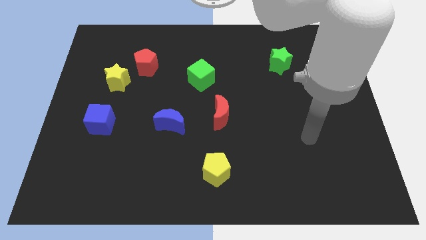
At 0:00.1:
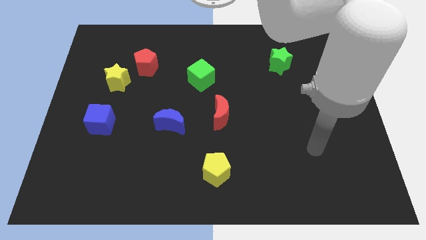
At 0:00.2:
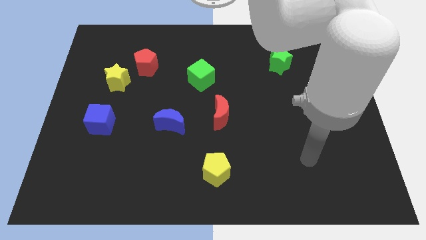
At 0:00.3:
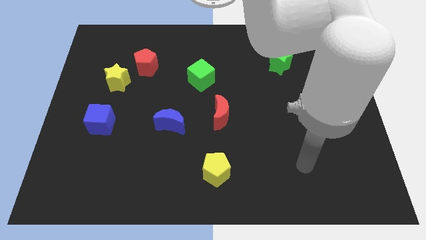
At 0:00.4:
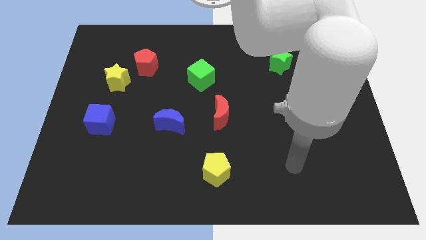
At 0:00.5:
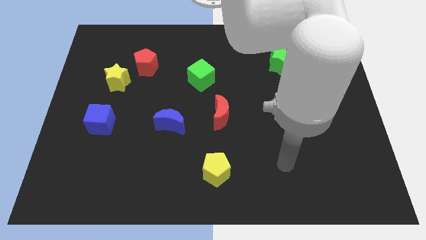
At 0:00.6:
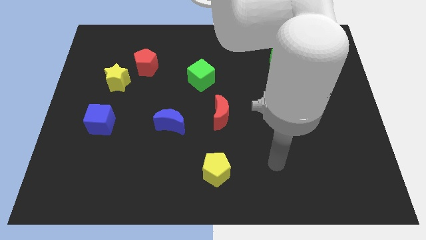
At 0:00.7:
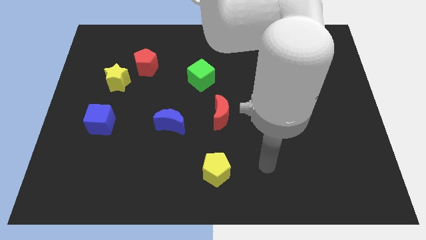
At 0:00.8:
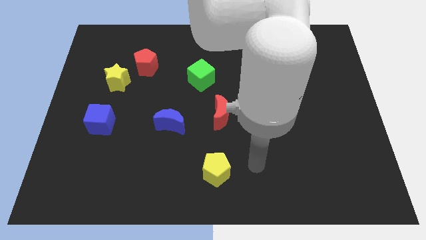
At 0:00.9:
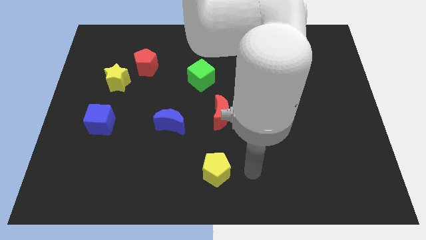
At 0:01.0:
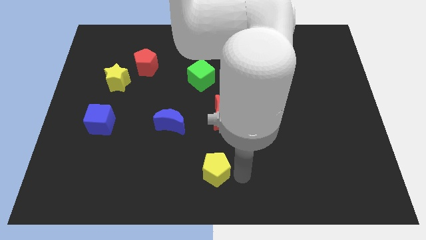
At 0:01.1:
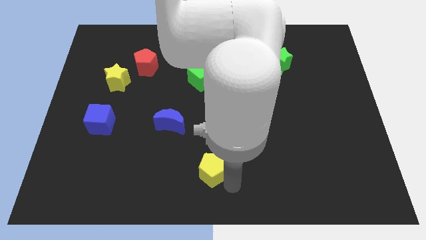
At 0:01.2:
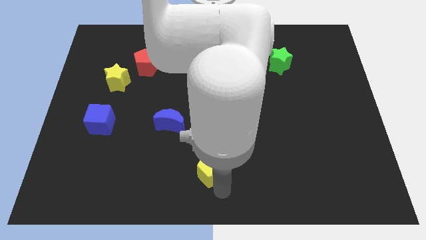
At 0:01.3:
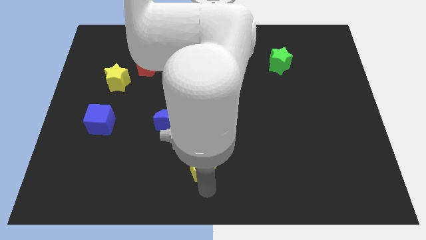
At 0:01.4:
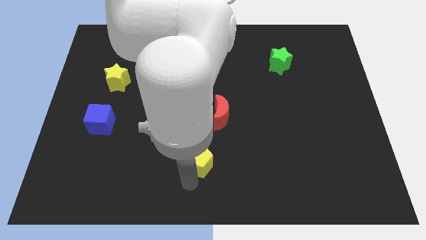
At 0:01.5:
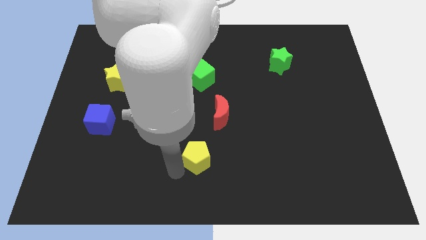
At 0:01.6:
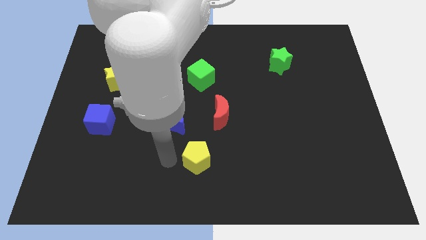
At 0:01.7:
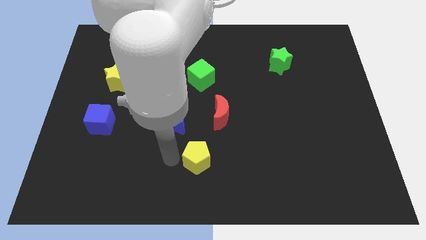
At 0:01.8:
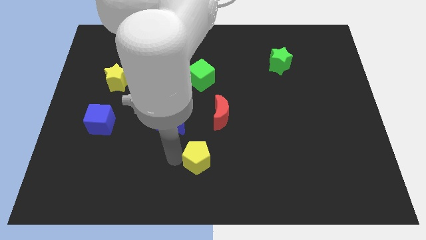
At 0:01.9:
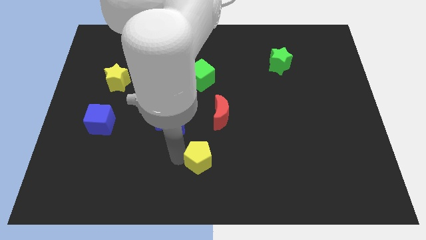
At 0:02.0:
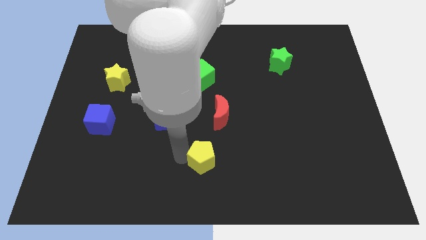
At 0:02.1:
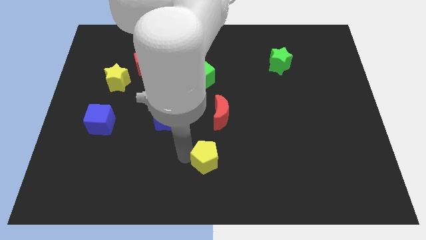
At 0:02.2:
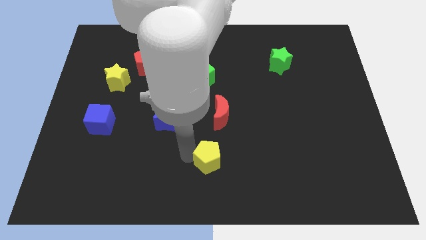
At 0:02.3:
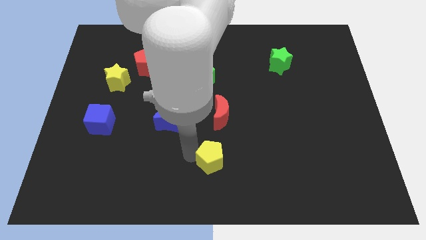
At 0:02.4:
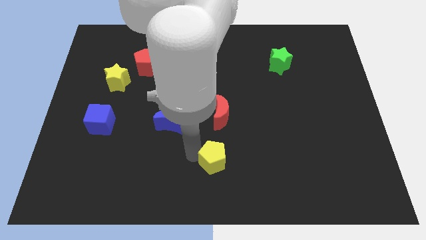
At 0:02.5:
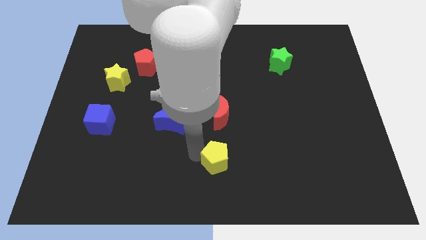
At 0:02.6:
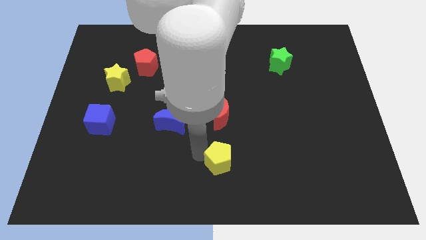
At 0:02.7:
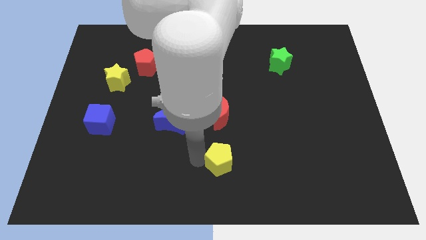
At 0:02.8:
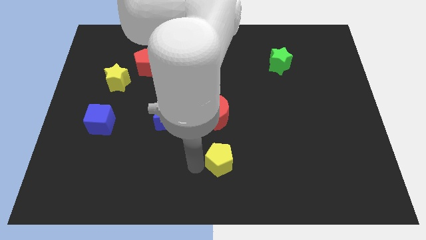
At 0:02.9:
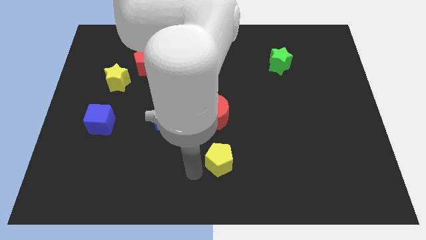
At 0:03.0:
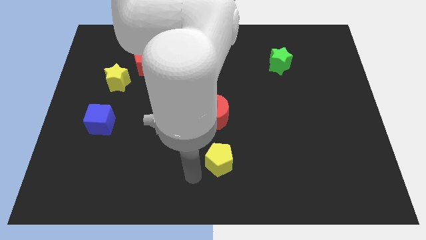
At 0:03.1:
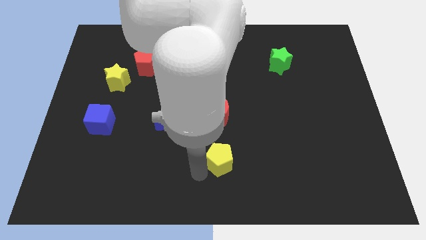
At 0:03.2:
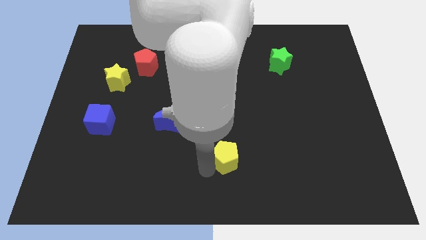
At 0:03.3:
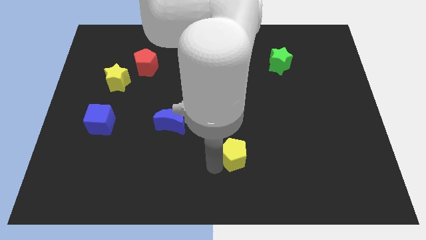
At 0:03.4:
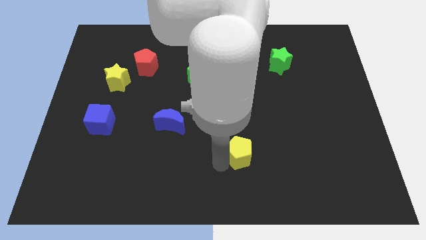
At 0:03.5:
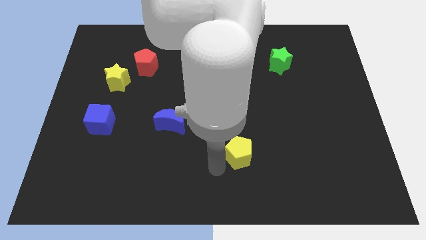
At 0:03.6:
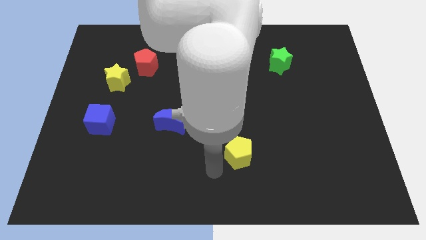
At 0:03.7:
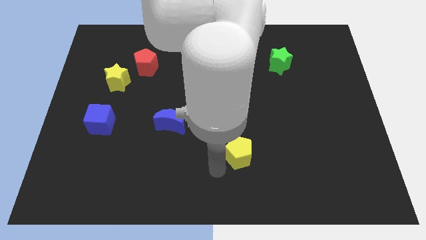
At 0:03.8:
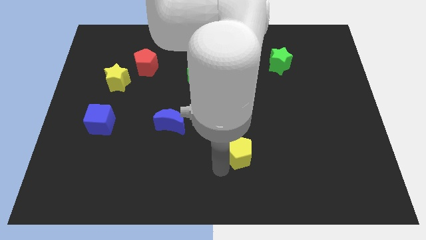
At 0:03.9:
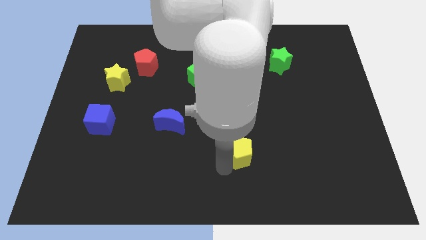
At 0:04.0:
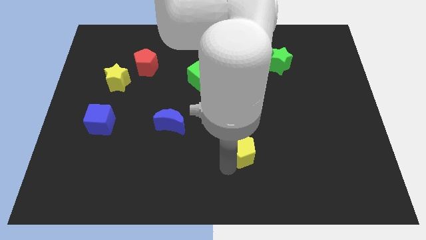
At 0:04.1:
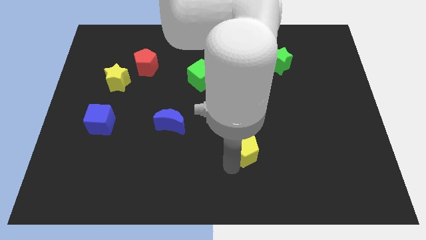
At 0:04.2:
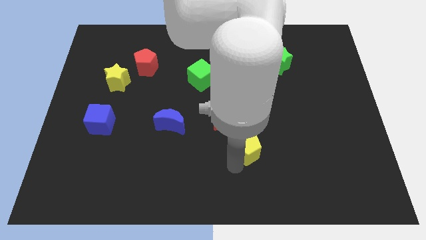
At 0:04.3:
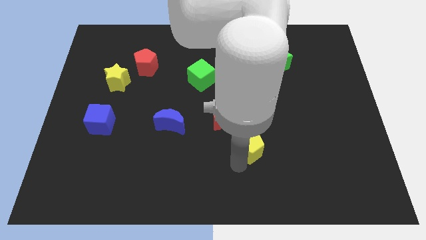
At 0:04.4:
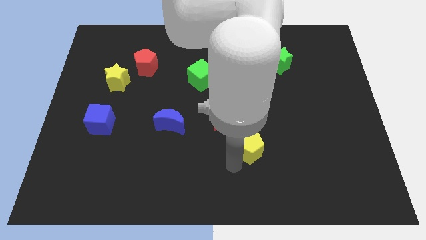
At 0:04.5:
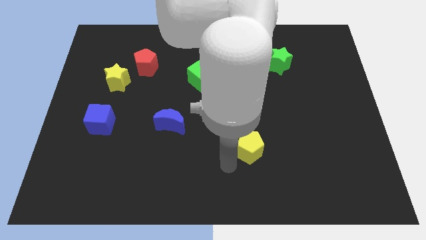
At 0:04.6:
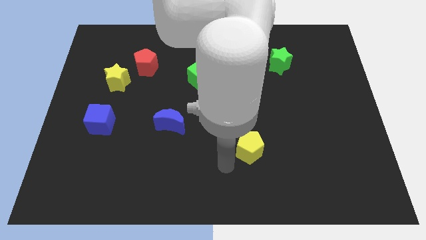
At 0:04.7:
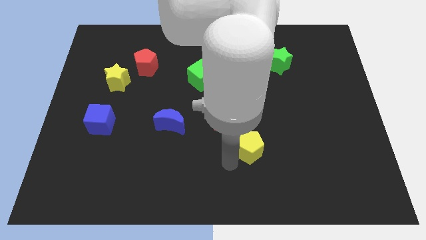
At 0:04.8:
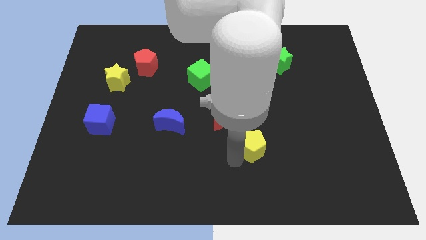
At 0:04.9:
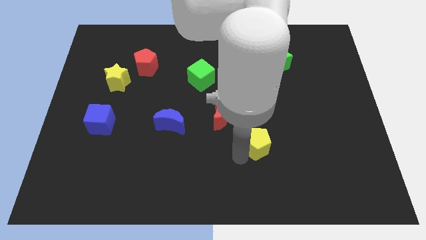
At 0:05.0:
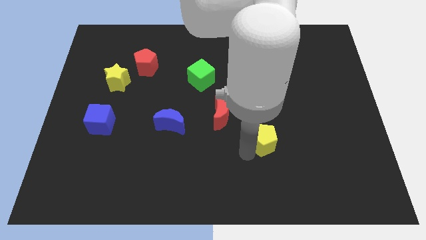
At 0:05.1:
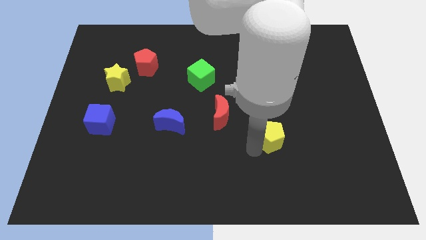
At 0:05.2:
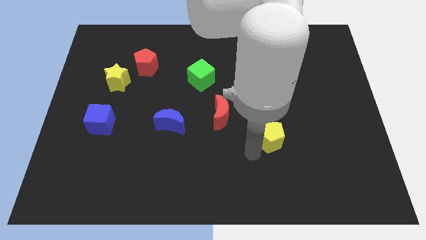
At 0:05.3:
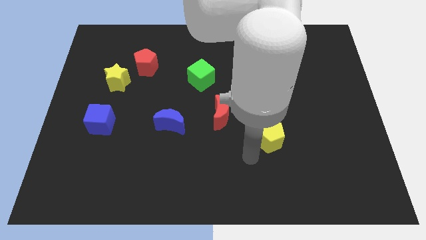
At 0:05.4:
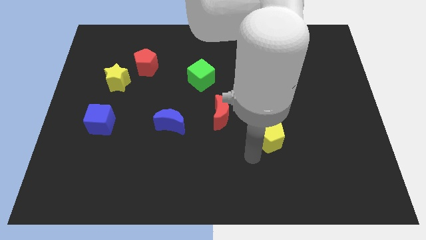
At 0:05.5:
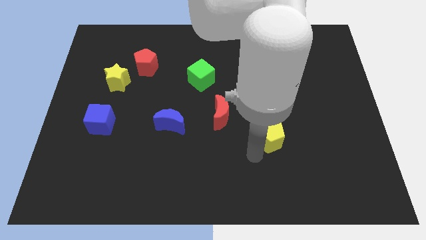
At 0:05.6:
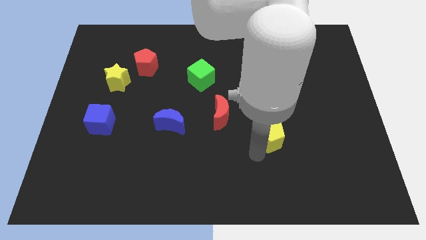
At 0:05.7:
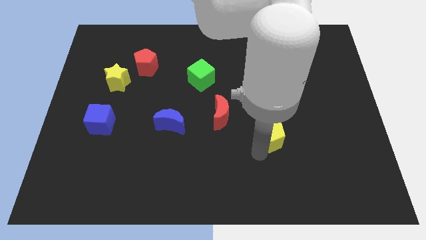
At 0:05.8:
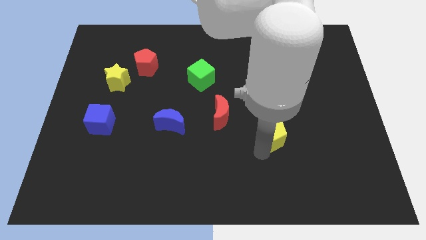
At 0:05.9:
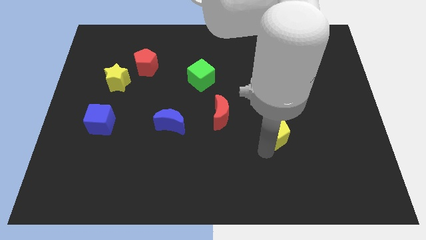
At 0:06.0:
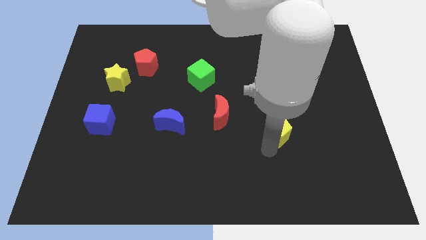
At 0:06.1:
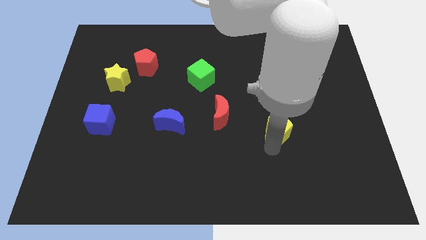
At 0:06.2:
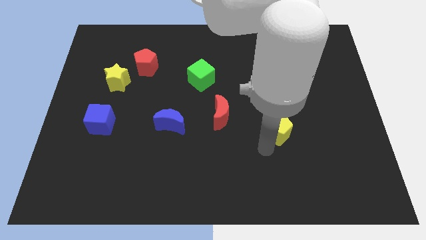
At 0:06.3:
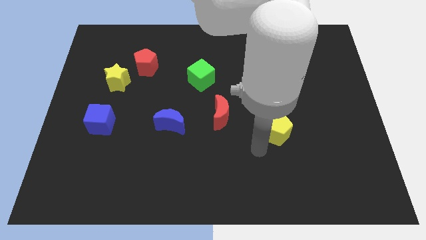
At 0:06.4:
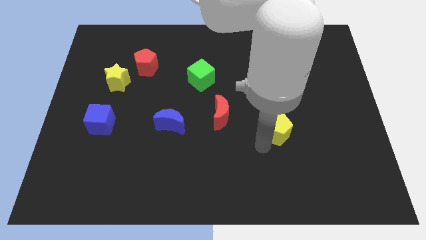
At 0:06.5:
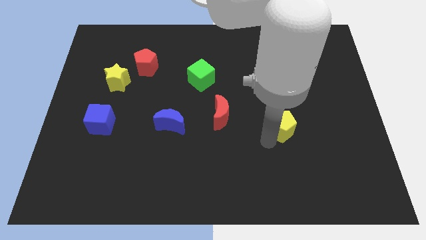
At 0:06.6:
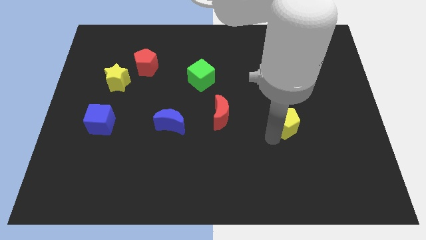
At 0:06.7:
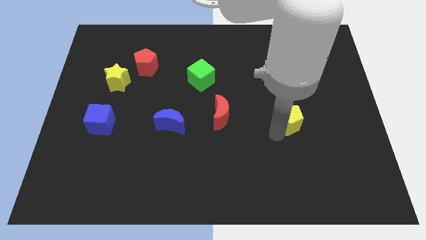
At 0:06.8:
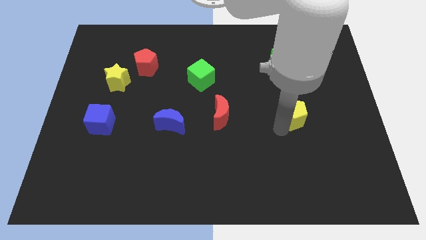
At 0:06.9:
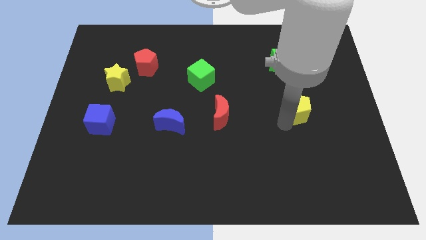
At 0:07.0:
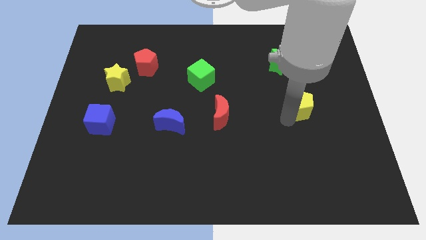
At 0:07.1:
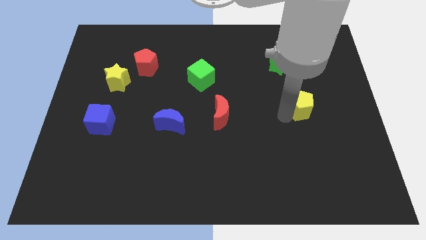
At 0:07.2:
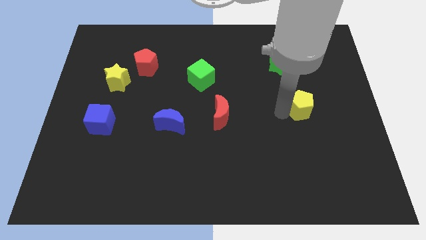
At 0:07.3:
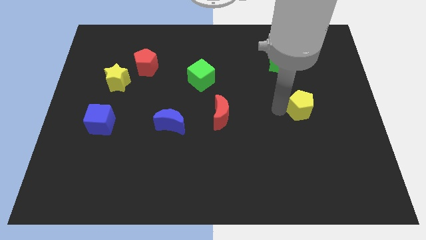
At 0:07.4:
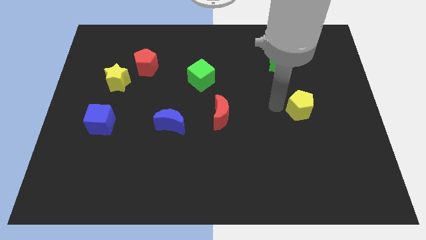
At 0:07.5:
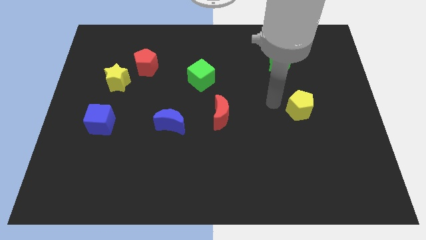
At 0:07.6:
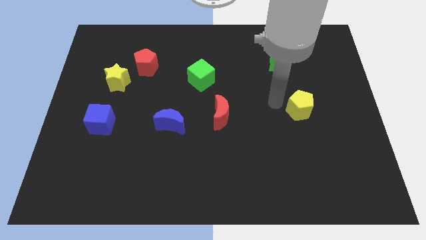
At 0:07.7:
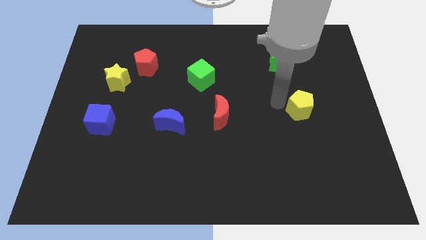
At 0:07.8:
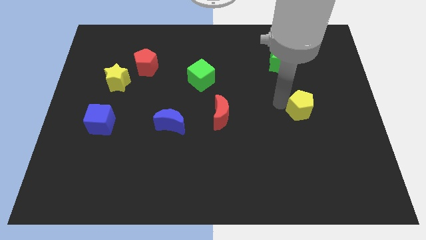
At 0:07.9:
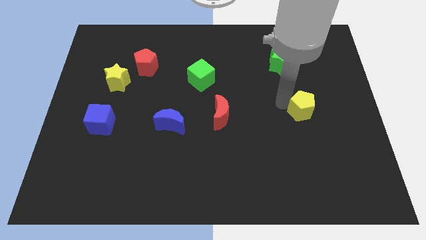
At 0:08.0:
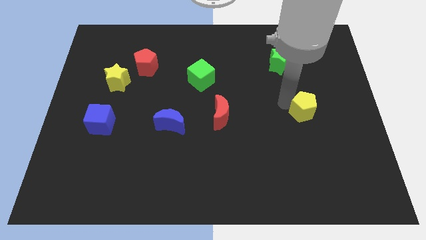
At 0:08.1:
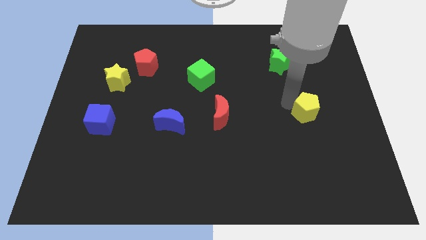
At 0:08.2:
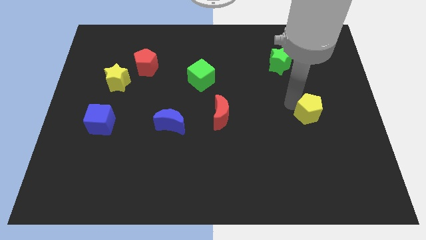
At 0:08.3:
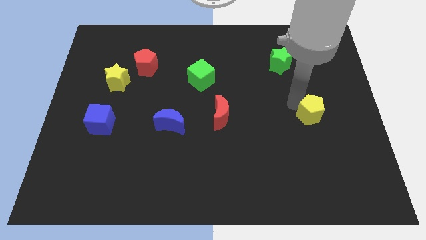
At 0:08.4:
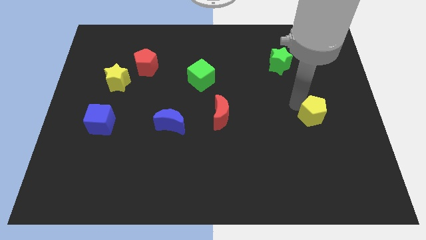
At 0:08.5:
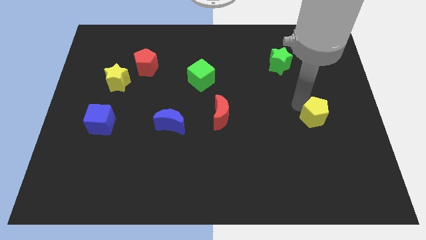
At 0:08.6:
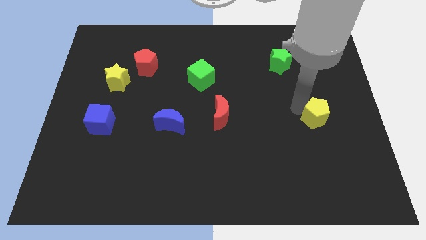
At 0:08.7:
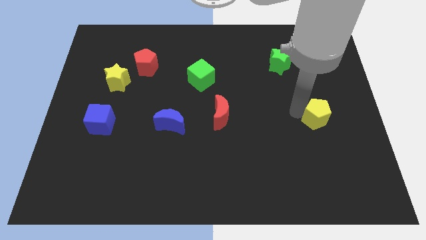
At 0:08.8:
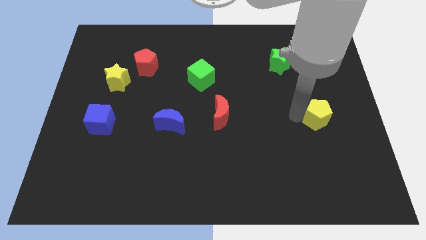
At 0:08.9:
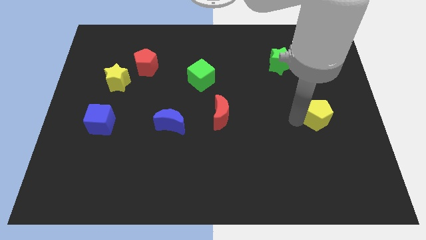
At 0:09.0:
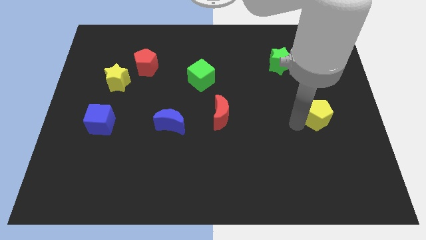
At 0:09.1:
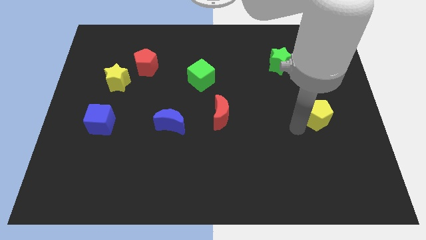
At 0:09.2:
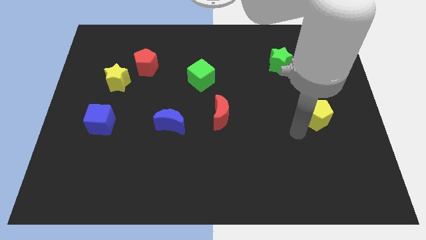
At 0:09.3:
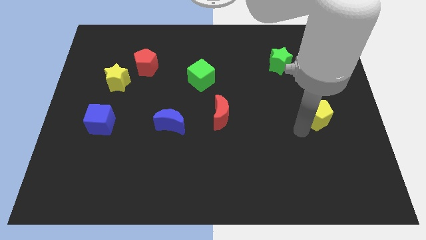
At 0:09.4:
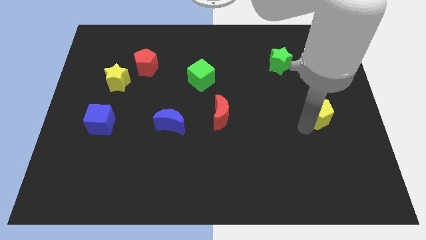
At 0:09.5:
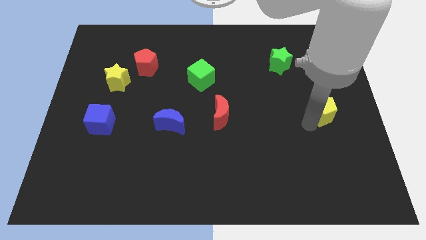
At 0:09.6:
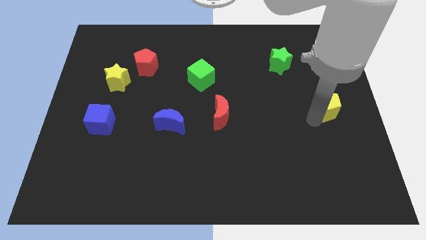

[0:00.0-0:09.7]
push the yellow pentagon to the right side of the board
